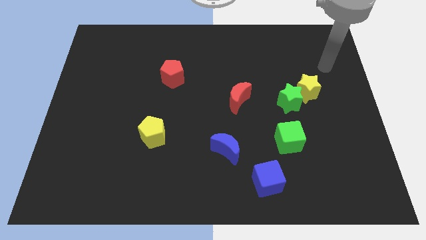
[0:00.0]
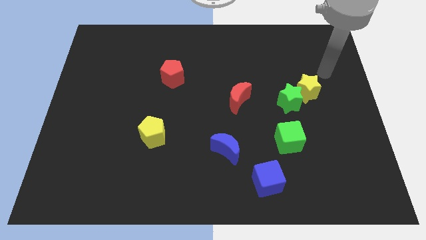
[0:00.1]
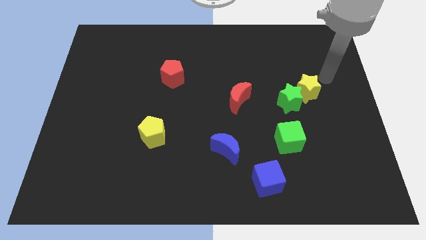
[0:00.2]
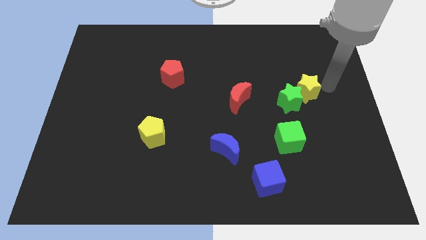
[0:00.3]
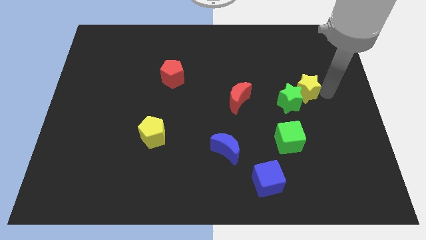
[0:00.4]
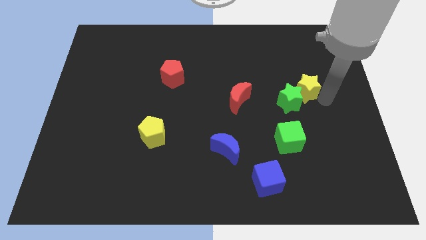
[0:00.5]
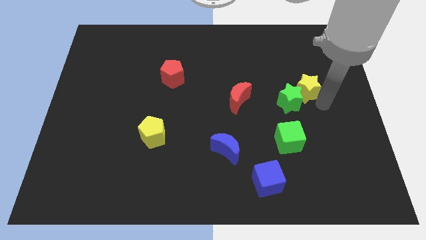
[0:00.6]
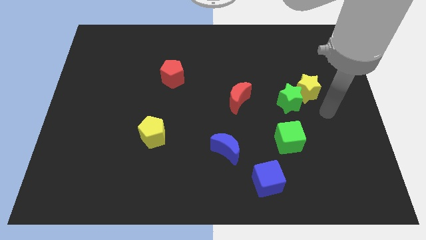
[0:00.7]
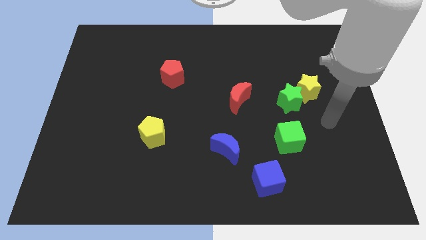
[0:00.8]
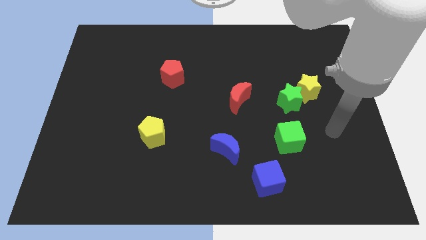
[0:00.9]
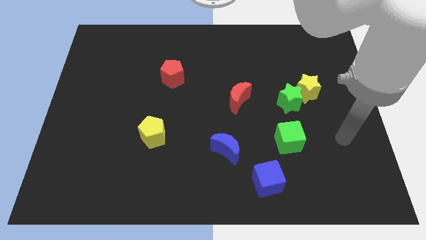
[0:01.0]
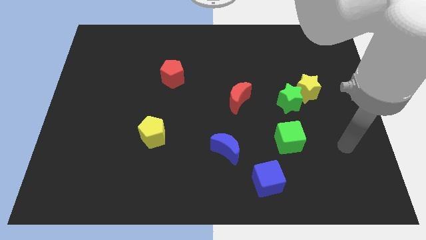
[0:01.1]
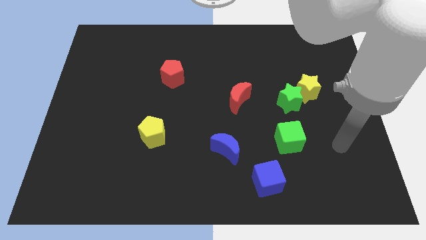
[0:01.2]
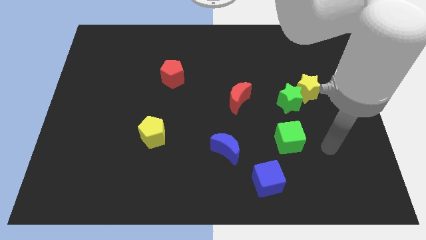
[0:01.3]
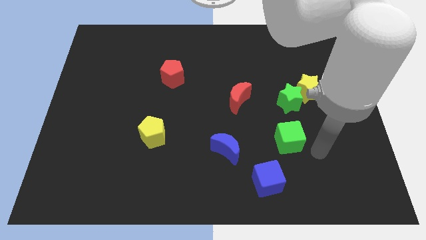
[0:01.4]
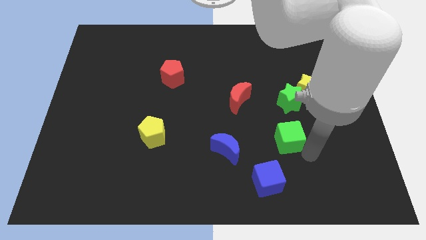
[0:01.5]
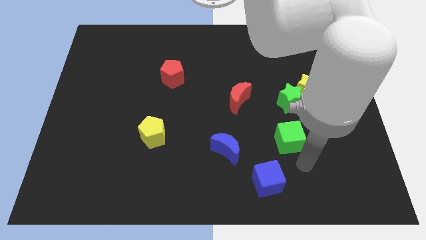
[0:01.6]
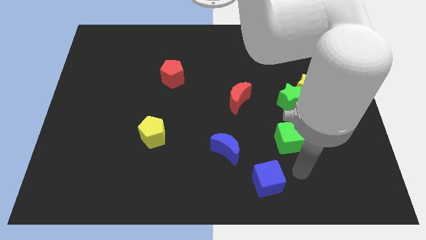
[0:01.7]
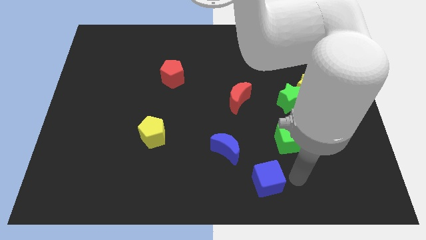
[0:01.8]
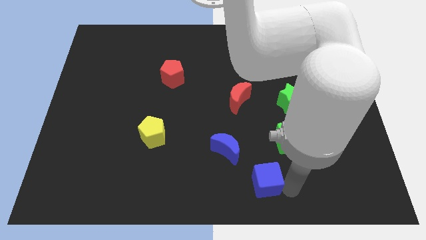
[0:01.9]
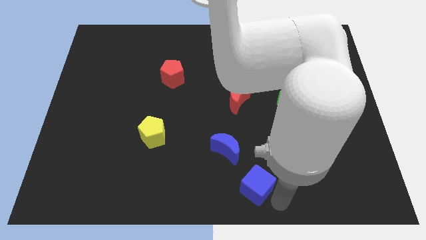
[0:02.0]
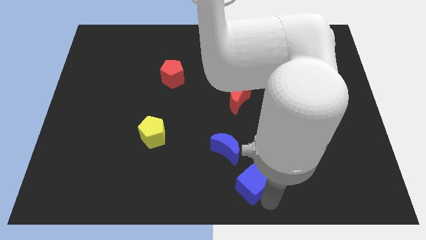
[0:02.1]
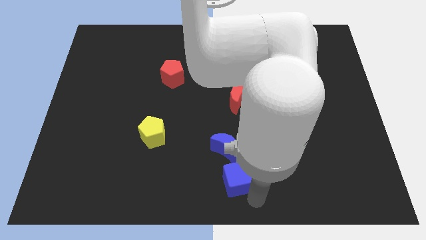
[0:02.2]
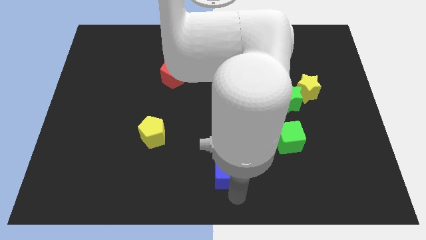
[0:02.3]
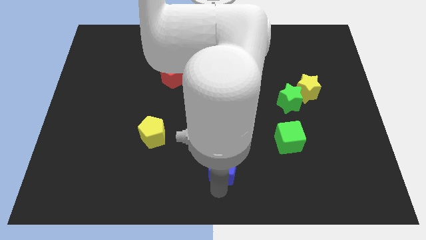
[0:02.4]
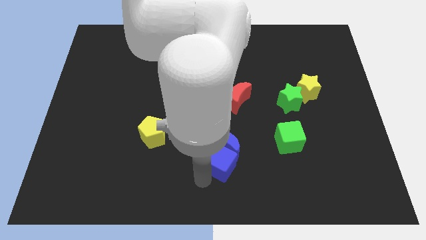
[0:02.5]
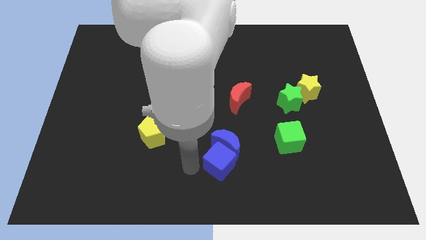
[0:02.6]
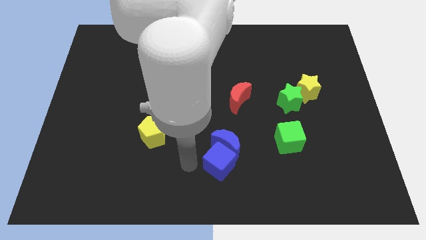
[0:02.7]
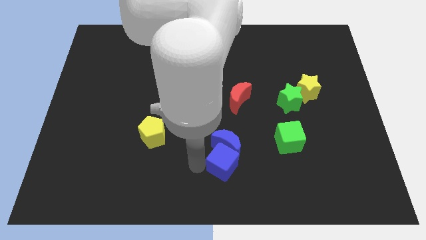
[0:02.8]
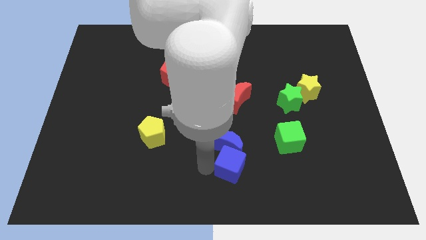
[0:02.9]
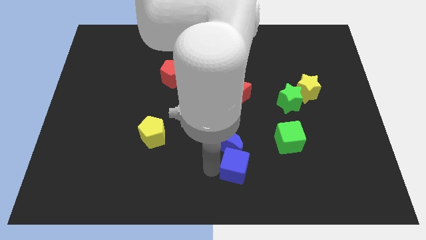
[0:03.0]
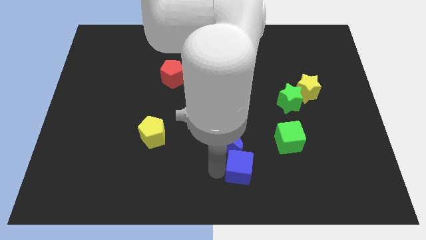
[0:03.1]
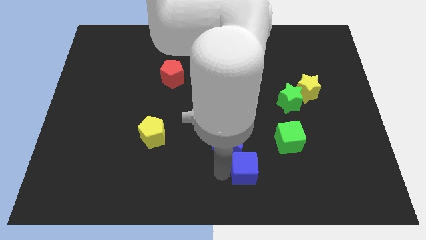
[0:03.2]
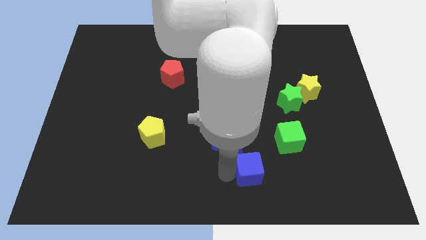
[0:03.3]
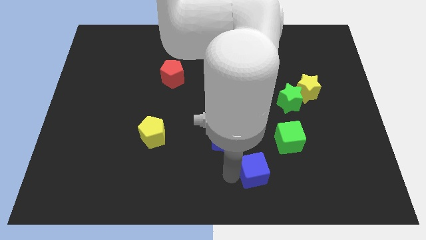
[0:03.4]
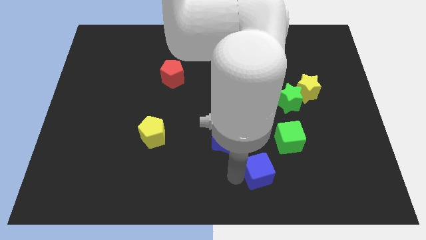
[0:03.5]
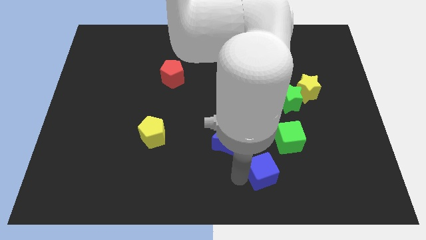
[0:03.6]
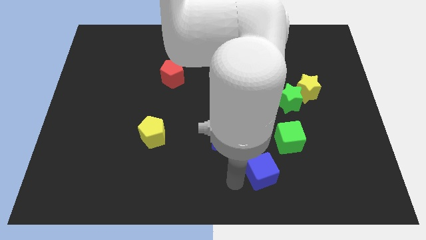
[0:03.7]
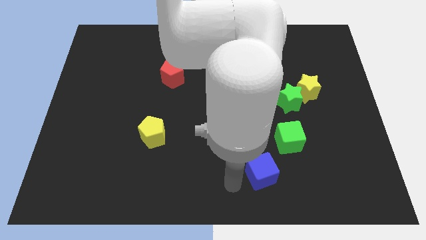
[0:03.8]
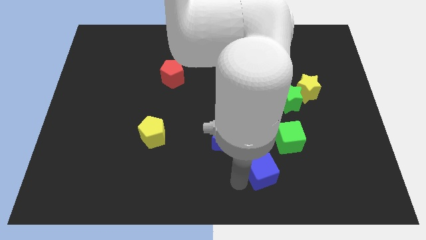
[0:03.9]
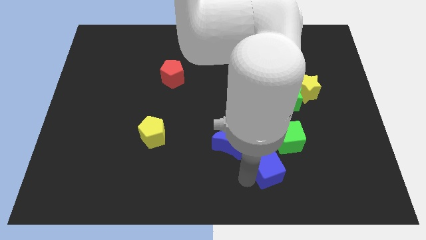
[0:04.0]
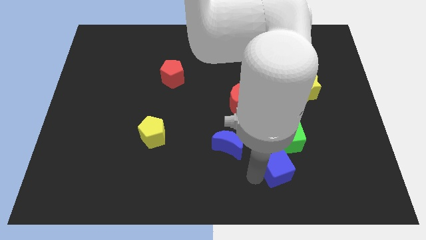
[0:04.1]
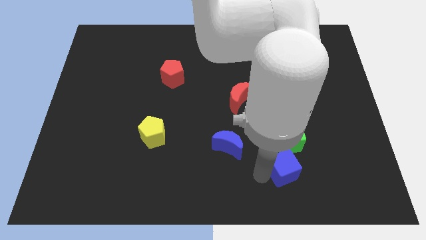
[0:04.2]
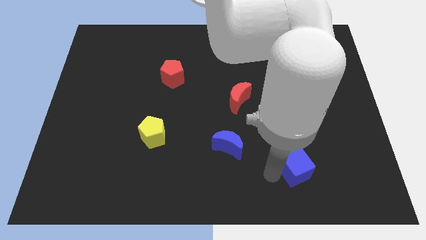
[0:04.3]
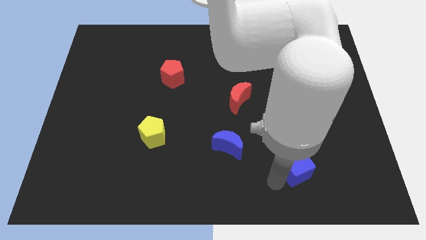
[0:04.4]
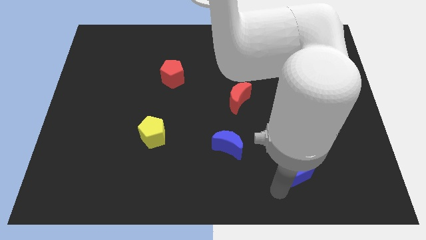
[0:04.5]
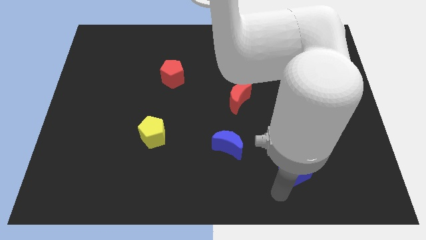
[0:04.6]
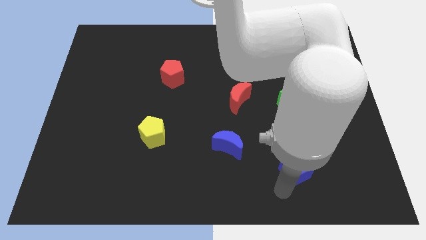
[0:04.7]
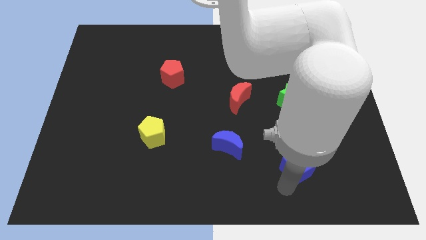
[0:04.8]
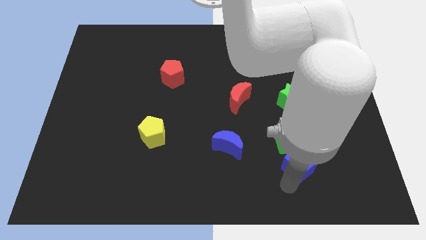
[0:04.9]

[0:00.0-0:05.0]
slide the blue cube upwards and then to the right somewhat

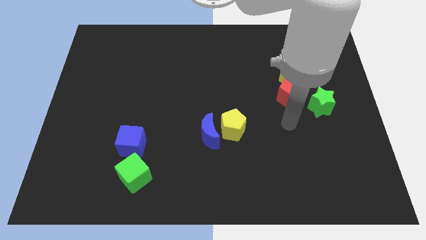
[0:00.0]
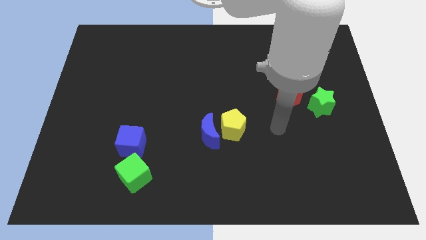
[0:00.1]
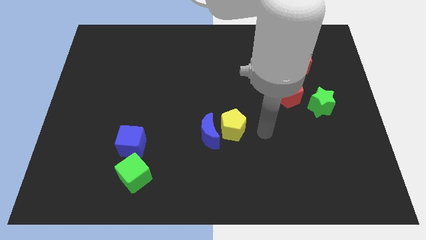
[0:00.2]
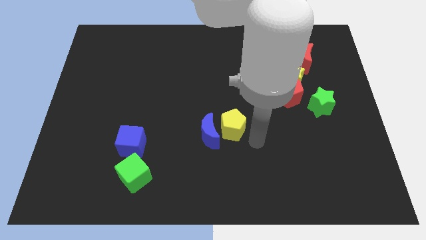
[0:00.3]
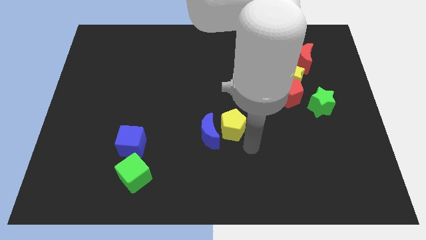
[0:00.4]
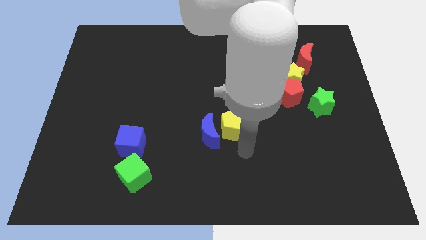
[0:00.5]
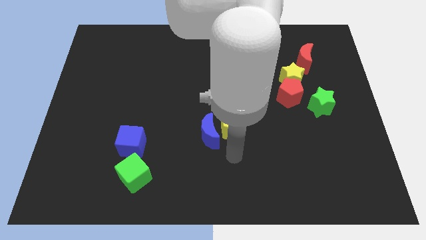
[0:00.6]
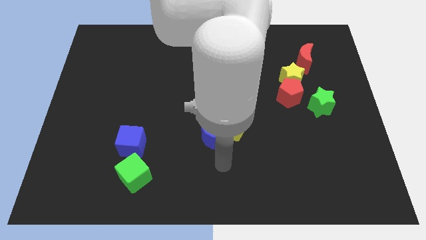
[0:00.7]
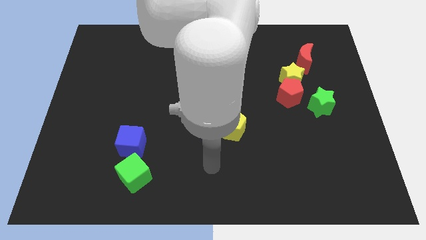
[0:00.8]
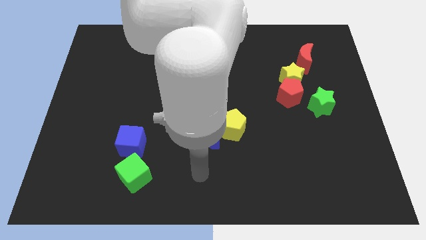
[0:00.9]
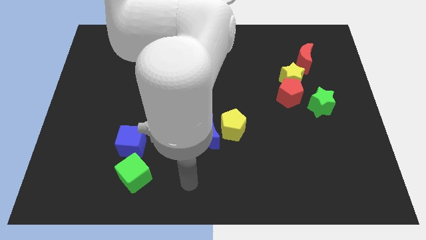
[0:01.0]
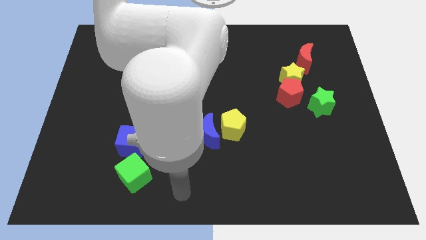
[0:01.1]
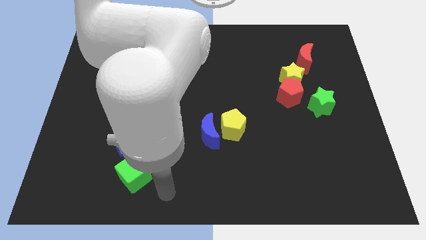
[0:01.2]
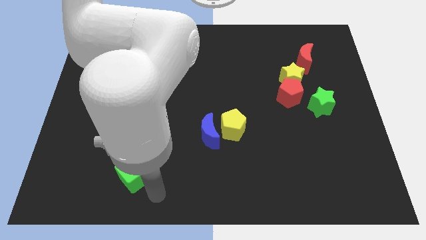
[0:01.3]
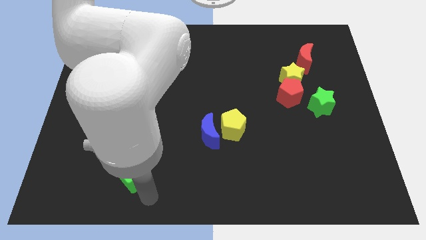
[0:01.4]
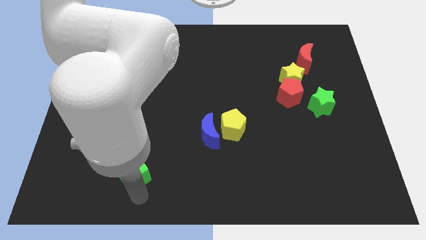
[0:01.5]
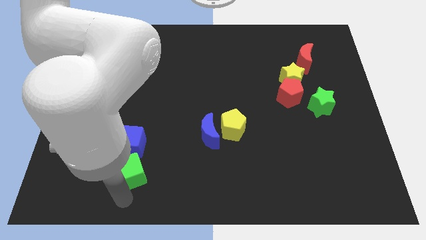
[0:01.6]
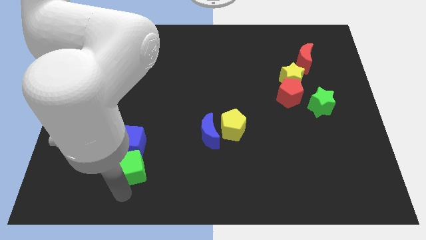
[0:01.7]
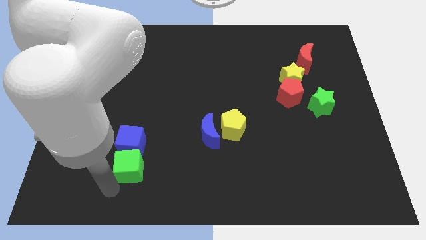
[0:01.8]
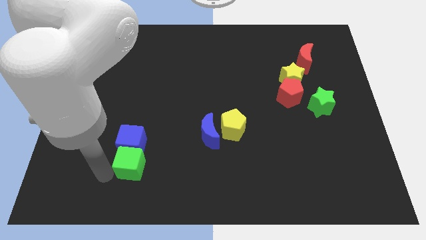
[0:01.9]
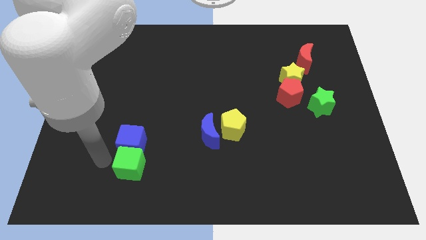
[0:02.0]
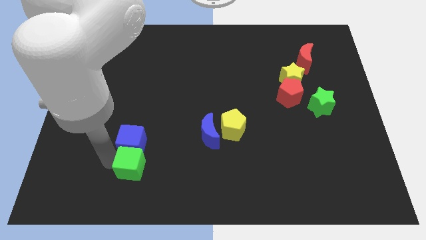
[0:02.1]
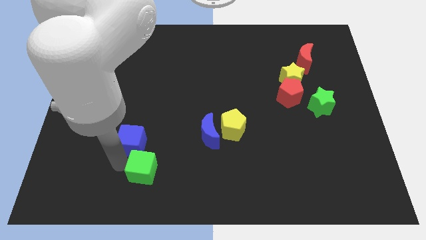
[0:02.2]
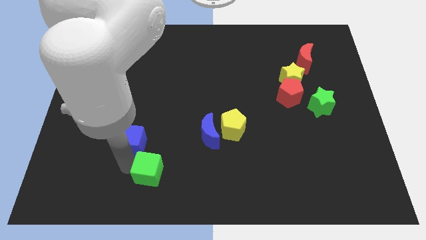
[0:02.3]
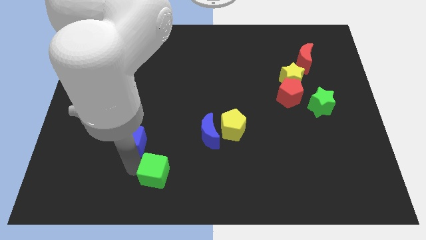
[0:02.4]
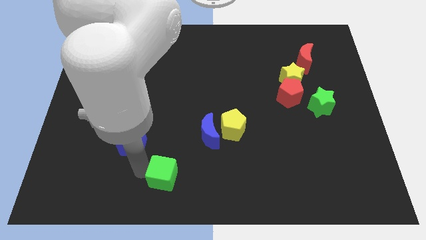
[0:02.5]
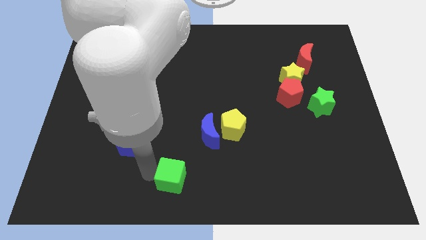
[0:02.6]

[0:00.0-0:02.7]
slightly push the green cube right

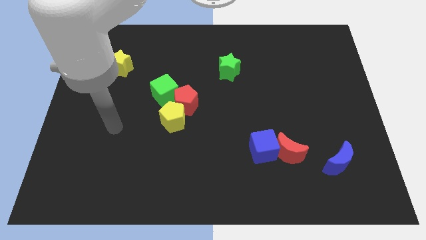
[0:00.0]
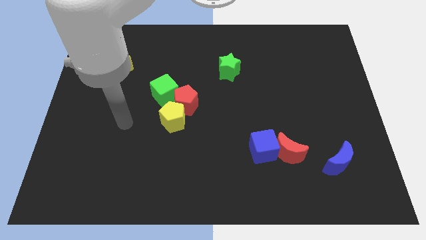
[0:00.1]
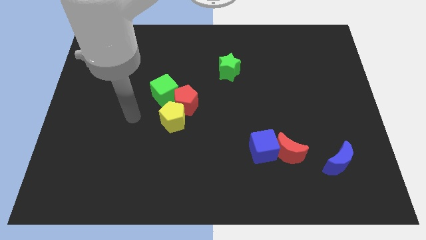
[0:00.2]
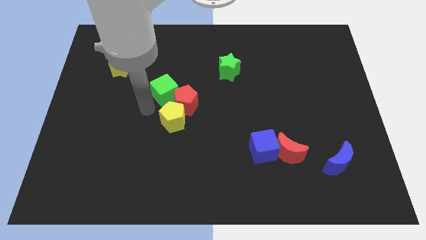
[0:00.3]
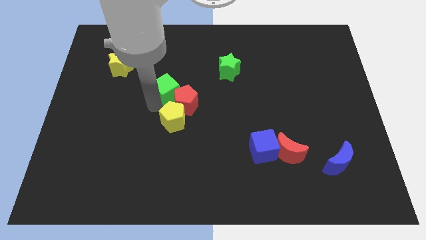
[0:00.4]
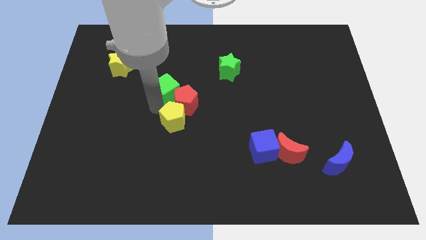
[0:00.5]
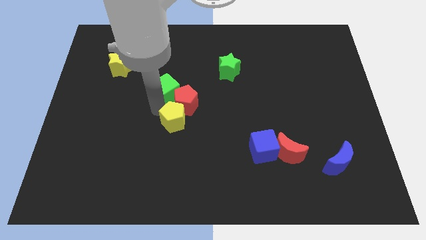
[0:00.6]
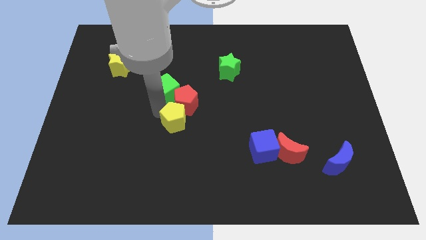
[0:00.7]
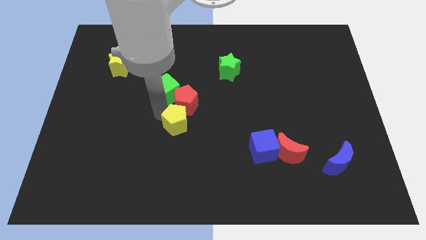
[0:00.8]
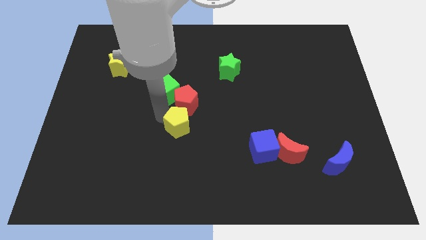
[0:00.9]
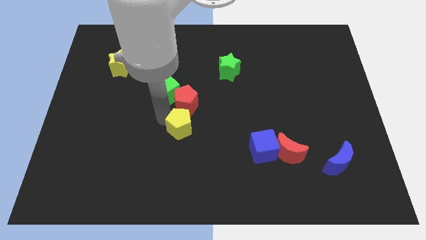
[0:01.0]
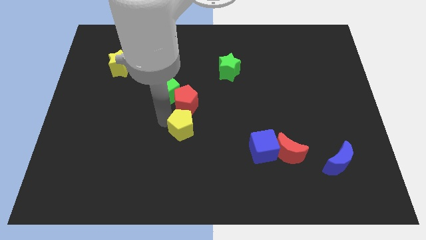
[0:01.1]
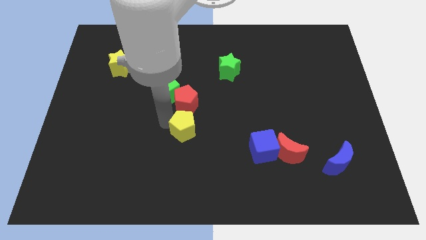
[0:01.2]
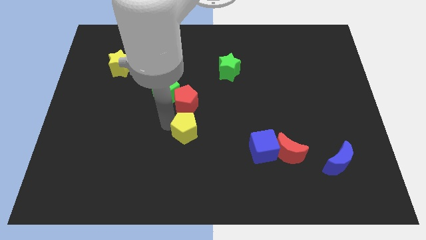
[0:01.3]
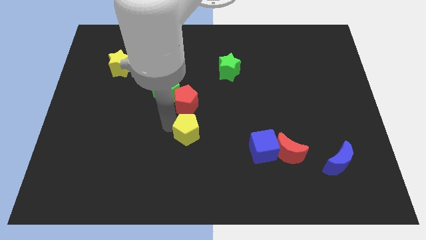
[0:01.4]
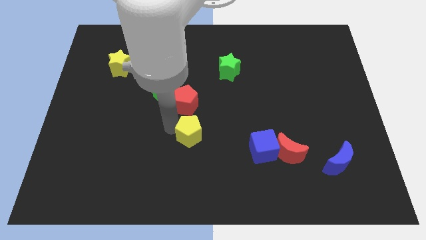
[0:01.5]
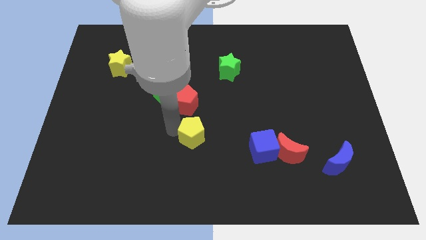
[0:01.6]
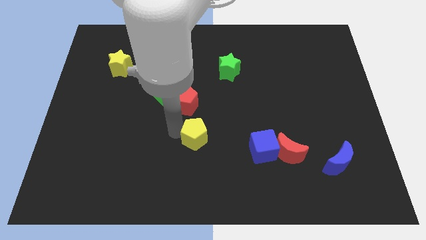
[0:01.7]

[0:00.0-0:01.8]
move the yellow pentagon diagonally downwards and to the right somewhat
